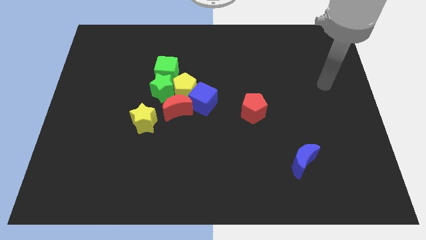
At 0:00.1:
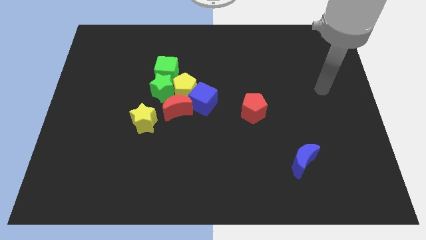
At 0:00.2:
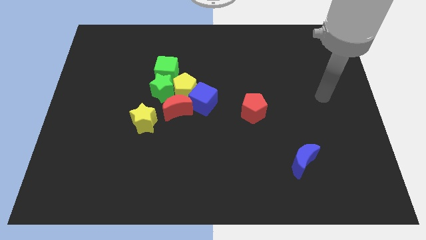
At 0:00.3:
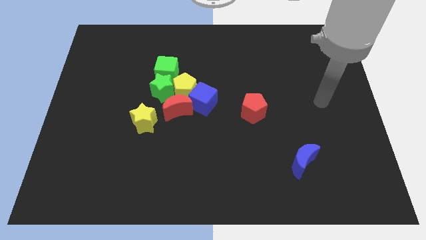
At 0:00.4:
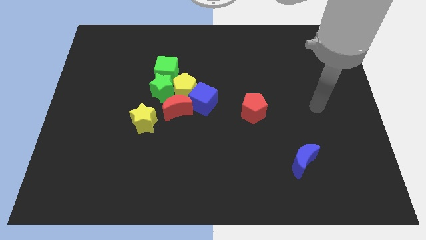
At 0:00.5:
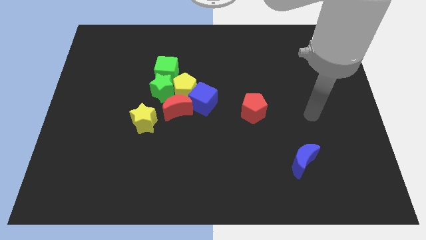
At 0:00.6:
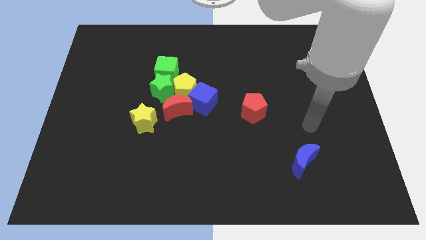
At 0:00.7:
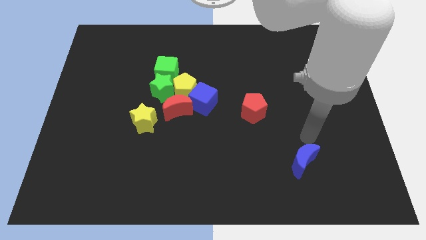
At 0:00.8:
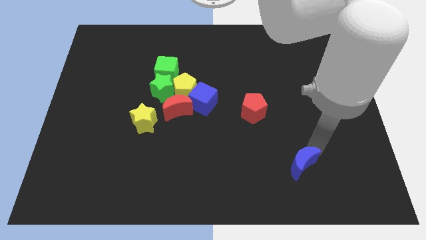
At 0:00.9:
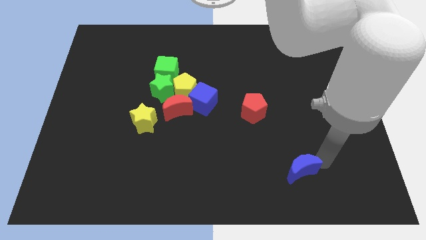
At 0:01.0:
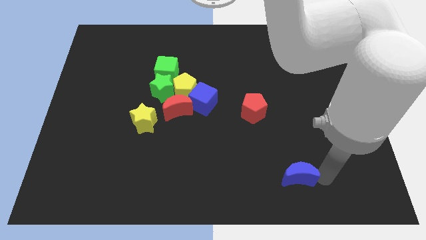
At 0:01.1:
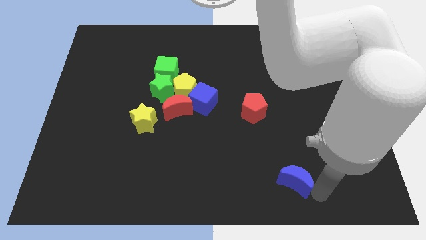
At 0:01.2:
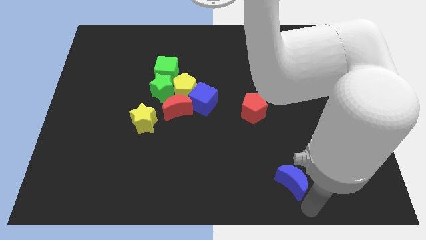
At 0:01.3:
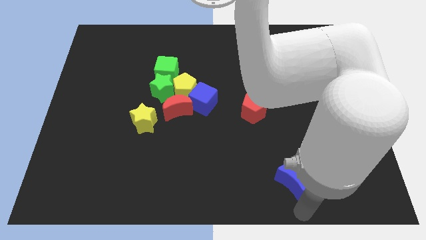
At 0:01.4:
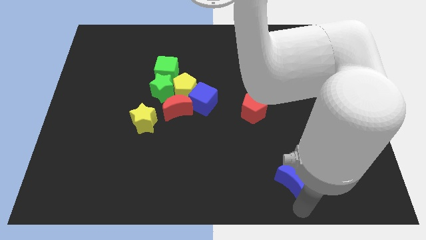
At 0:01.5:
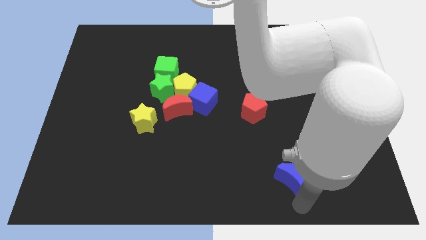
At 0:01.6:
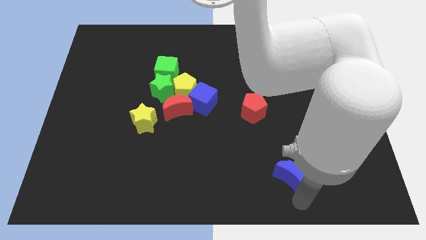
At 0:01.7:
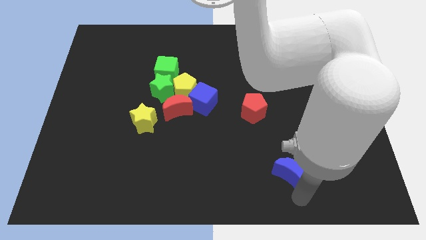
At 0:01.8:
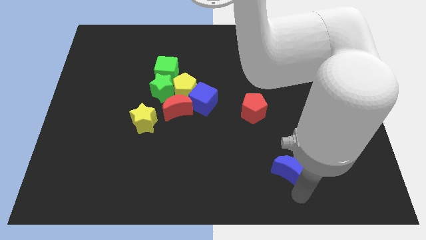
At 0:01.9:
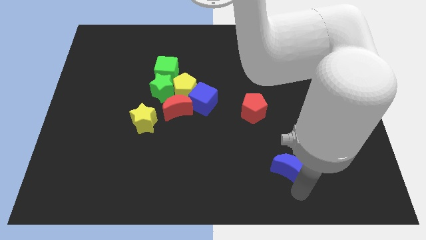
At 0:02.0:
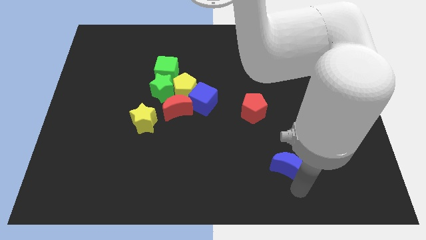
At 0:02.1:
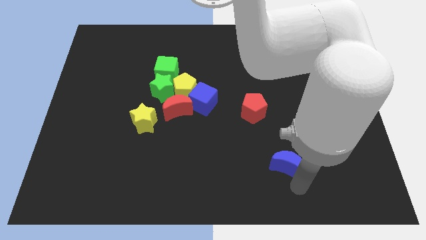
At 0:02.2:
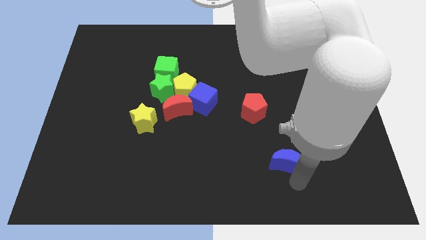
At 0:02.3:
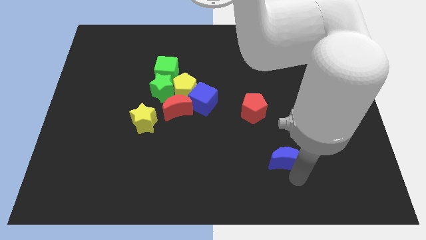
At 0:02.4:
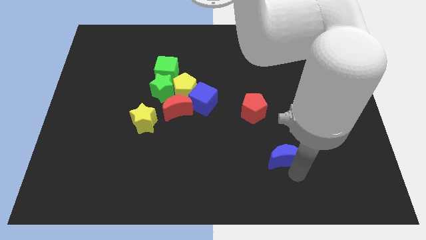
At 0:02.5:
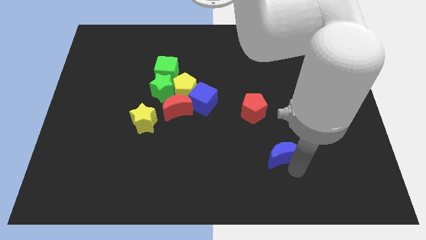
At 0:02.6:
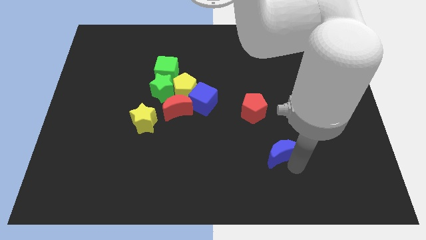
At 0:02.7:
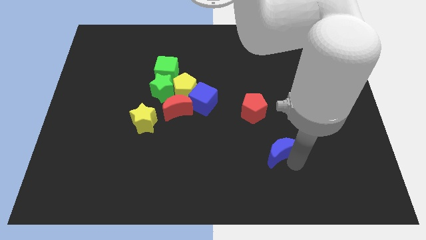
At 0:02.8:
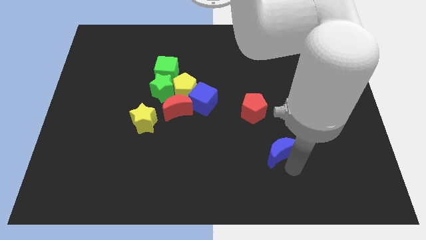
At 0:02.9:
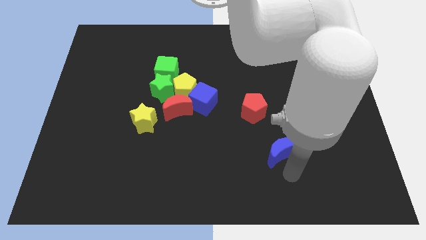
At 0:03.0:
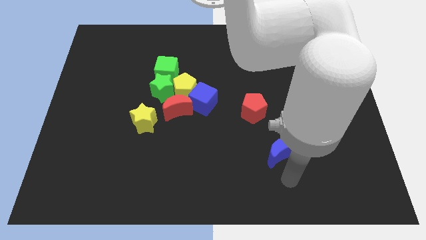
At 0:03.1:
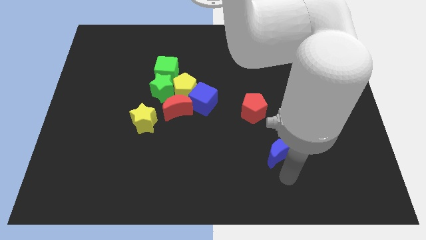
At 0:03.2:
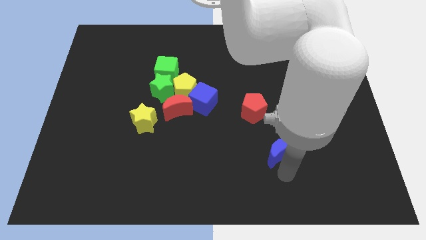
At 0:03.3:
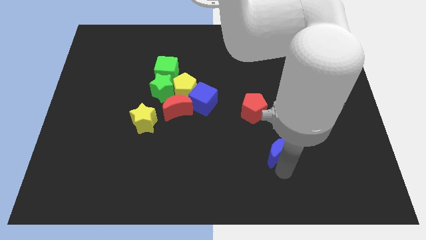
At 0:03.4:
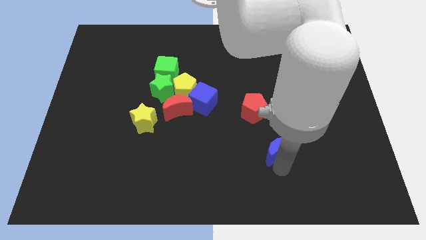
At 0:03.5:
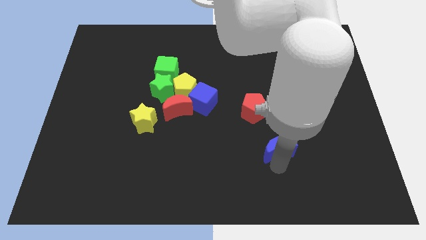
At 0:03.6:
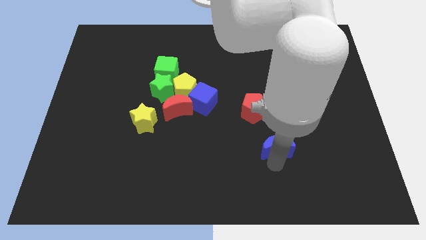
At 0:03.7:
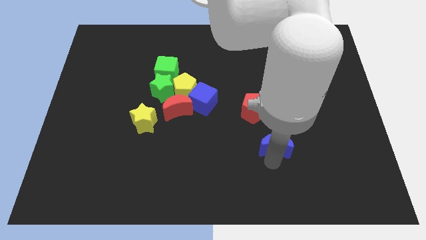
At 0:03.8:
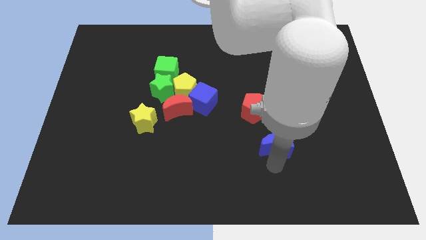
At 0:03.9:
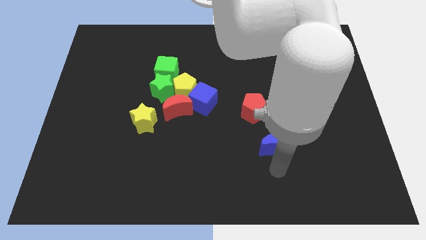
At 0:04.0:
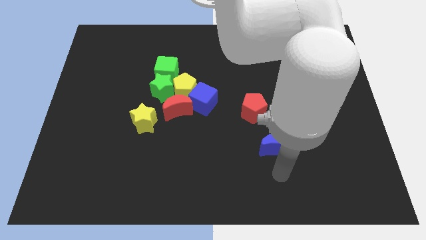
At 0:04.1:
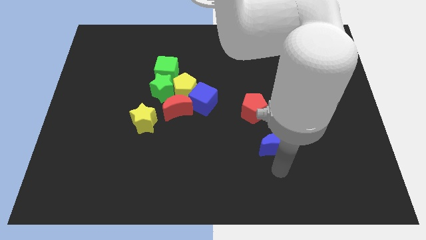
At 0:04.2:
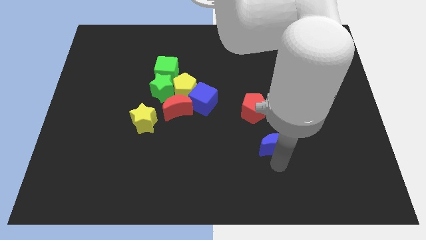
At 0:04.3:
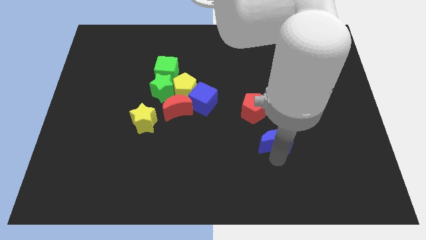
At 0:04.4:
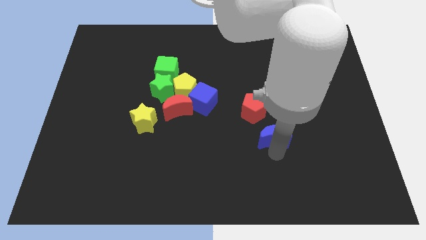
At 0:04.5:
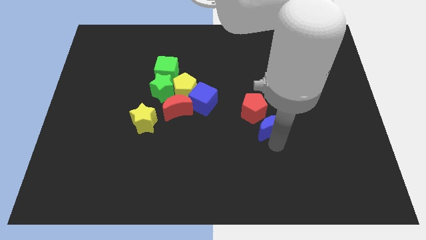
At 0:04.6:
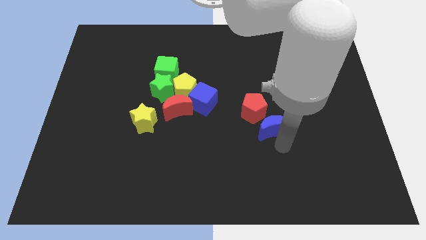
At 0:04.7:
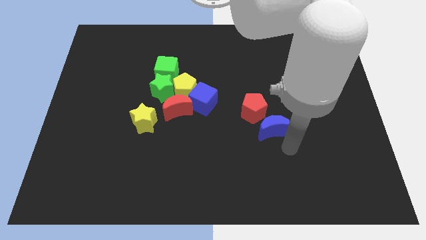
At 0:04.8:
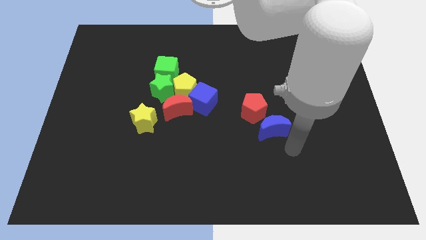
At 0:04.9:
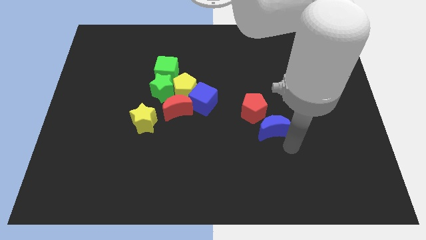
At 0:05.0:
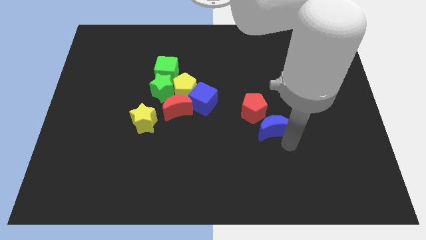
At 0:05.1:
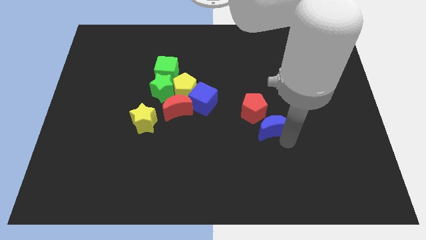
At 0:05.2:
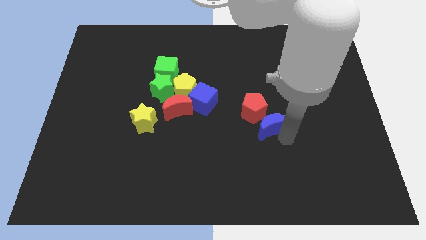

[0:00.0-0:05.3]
put the blue moon towards the red pentagon
